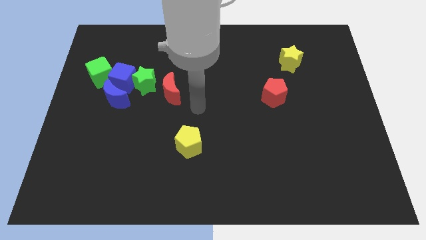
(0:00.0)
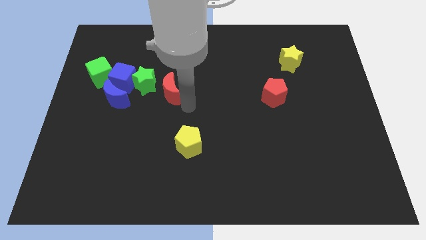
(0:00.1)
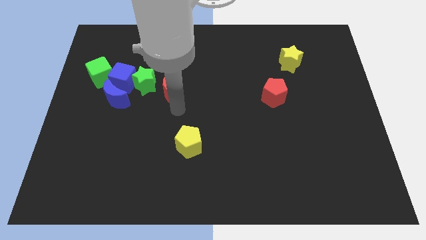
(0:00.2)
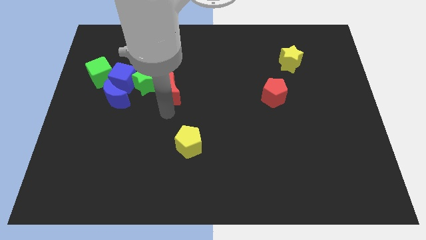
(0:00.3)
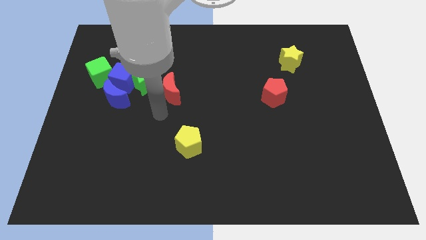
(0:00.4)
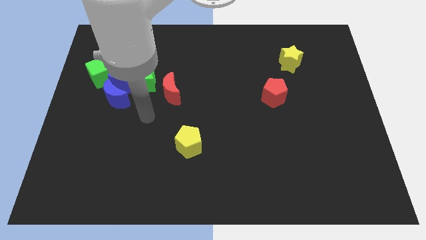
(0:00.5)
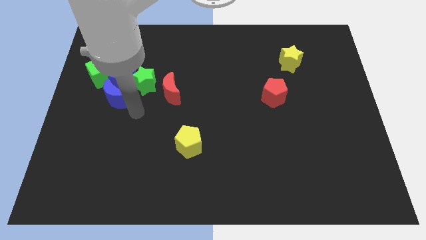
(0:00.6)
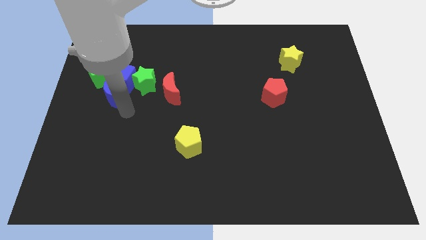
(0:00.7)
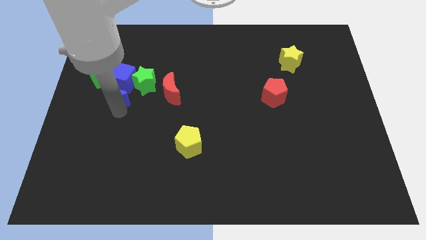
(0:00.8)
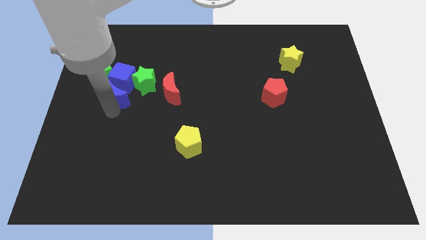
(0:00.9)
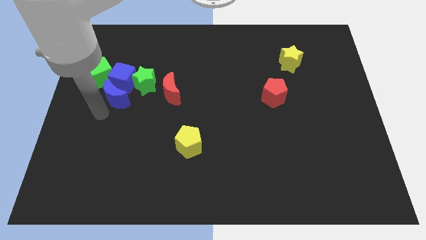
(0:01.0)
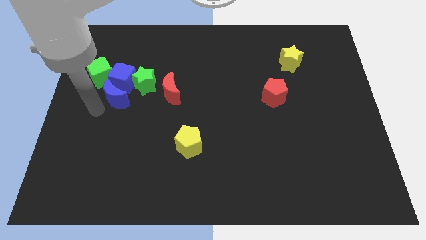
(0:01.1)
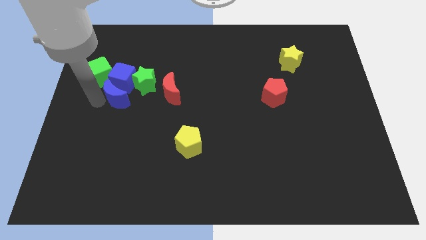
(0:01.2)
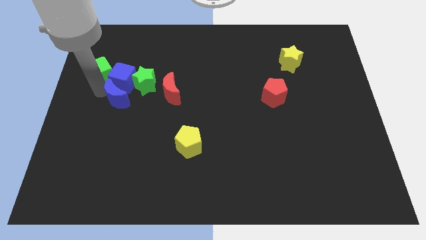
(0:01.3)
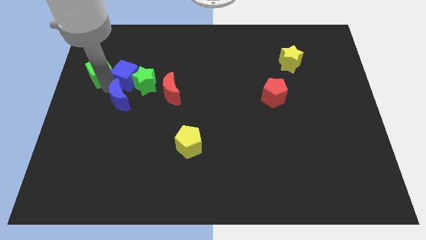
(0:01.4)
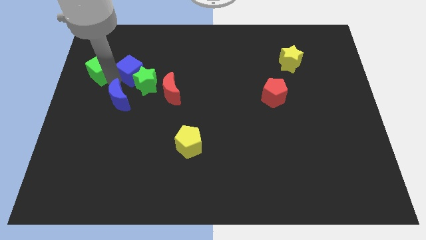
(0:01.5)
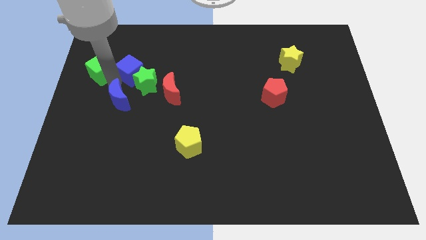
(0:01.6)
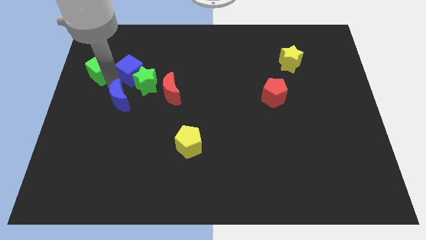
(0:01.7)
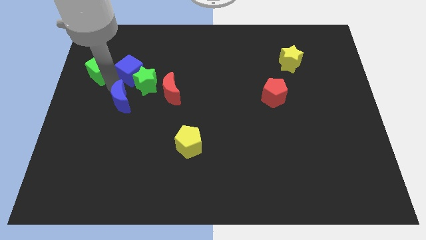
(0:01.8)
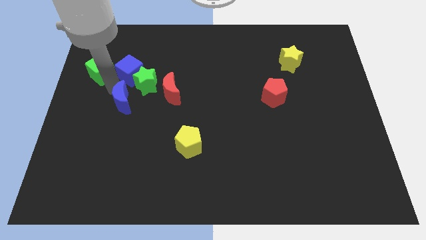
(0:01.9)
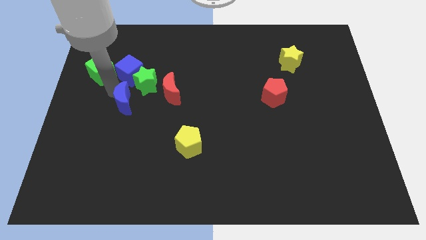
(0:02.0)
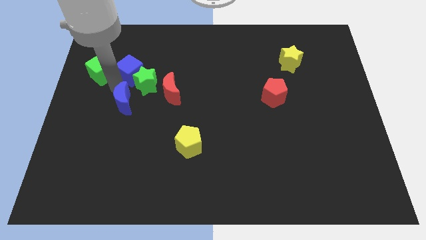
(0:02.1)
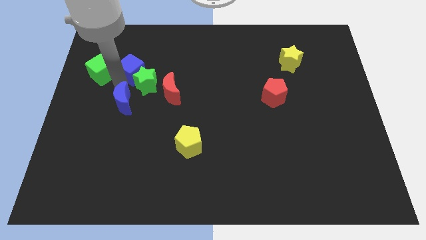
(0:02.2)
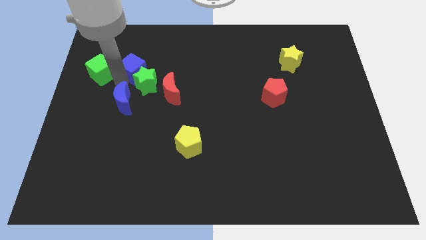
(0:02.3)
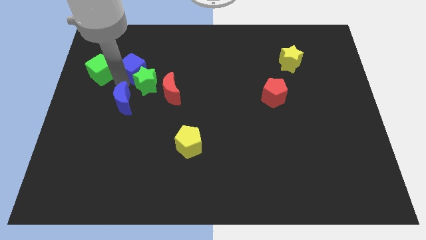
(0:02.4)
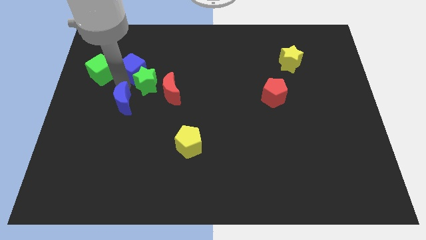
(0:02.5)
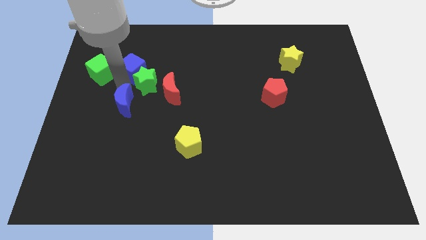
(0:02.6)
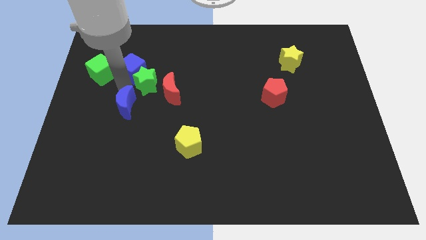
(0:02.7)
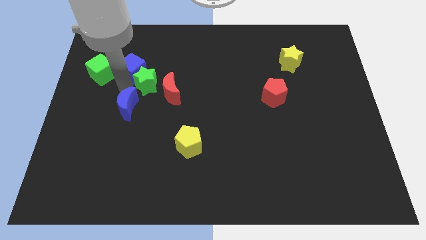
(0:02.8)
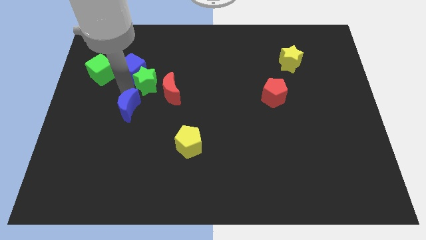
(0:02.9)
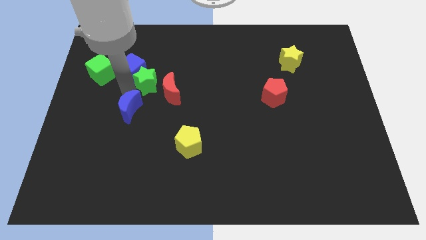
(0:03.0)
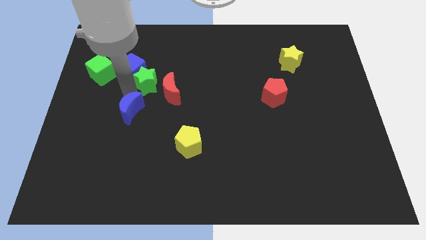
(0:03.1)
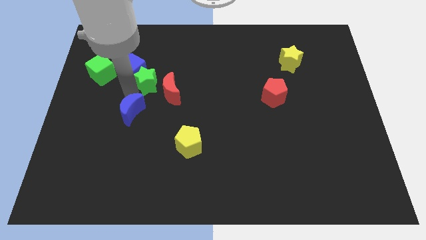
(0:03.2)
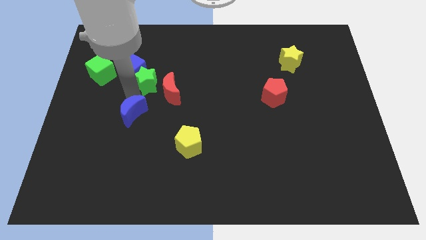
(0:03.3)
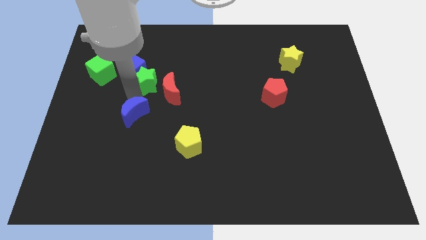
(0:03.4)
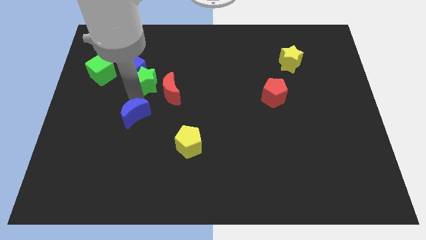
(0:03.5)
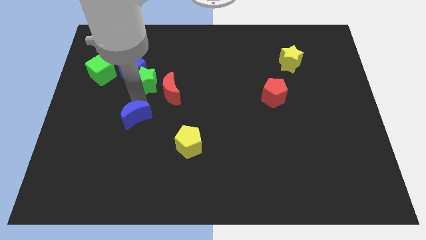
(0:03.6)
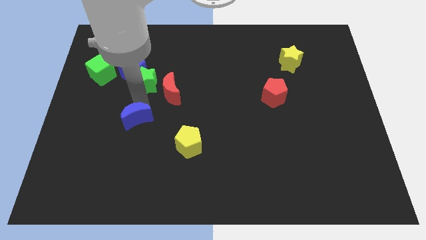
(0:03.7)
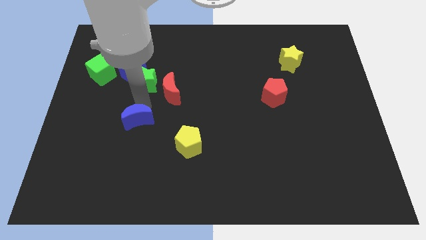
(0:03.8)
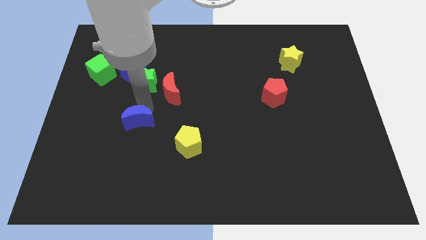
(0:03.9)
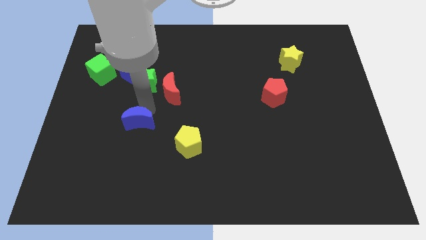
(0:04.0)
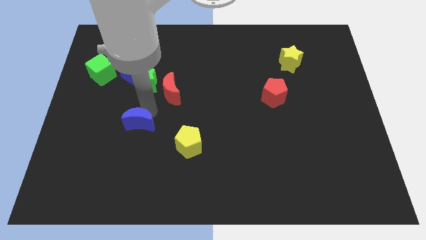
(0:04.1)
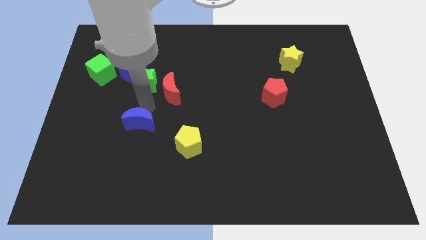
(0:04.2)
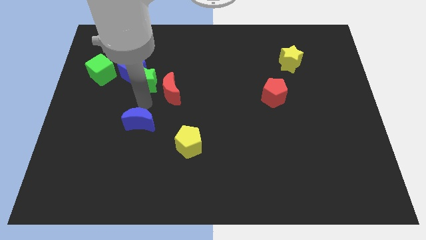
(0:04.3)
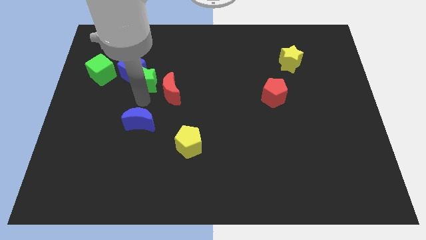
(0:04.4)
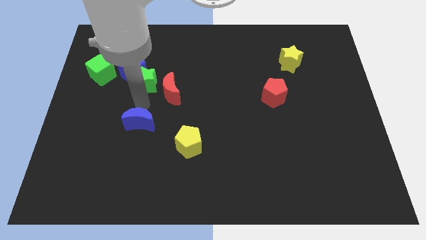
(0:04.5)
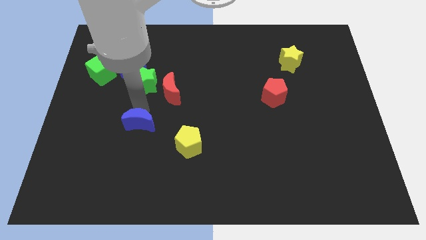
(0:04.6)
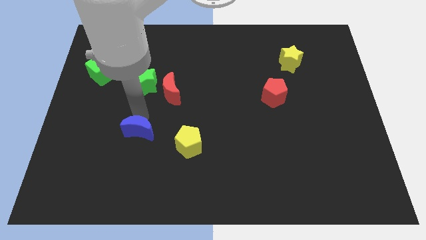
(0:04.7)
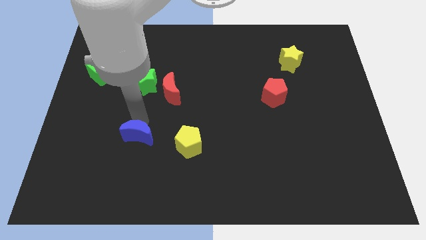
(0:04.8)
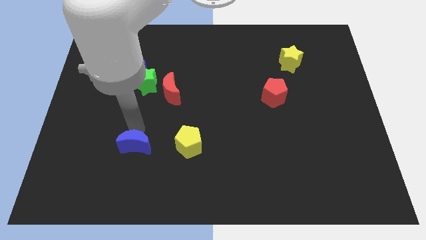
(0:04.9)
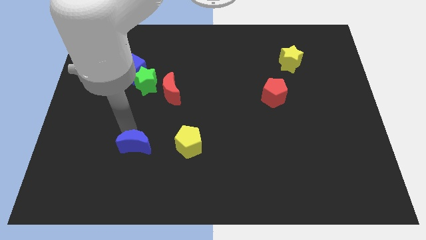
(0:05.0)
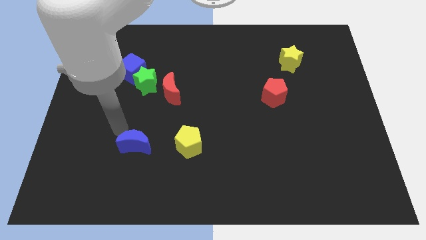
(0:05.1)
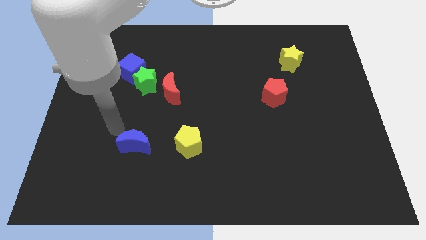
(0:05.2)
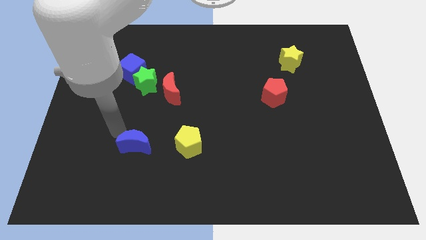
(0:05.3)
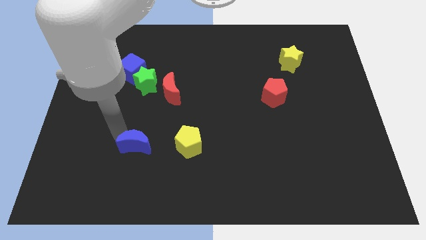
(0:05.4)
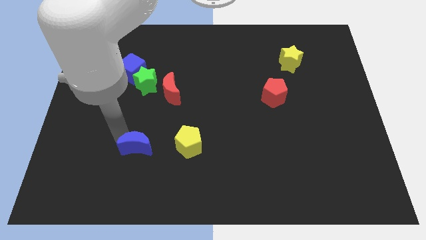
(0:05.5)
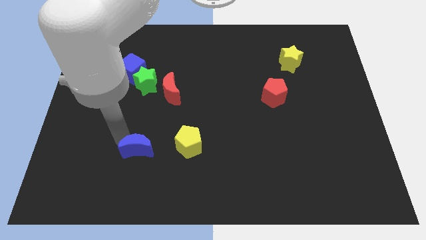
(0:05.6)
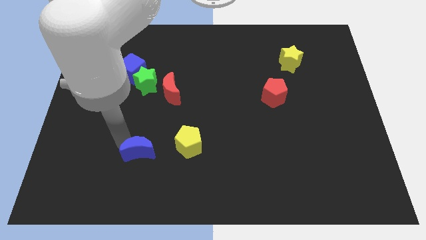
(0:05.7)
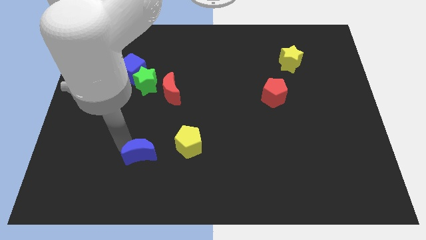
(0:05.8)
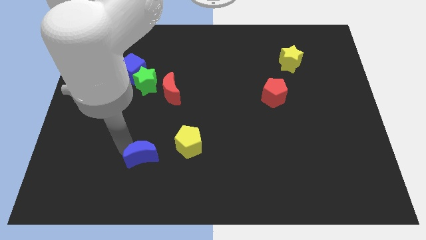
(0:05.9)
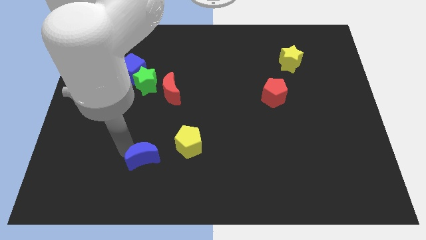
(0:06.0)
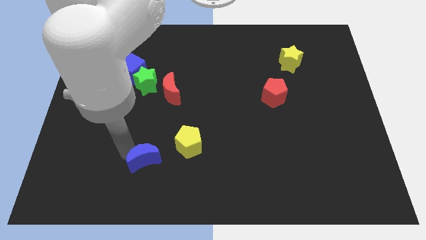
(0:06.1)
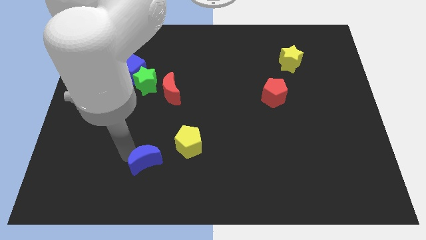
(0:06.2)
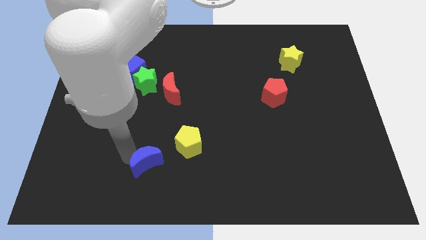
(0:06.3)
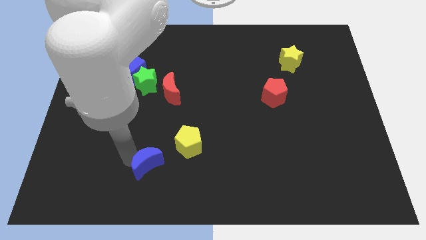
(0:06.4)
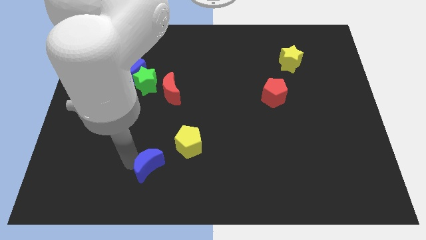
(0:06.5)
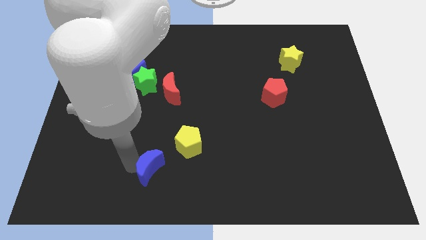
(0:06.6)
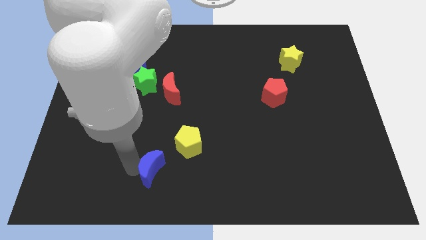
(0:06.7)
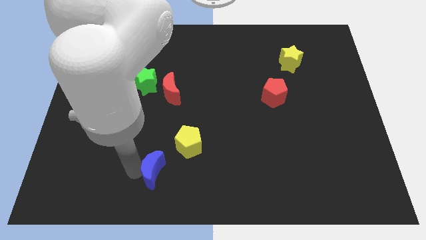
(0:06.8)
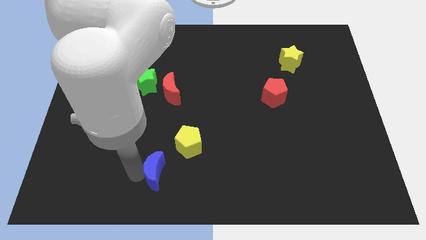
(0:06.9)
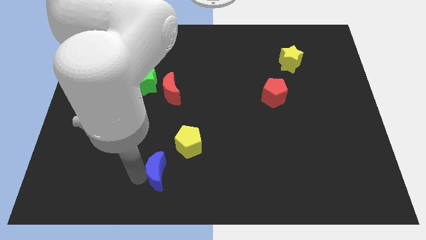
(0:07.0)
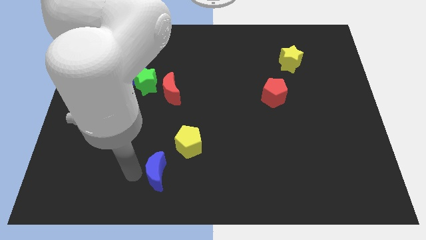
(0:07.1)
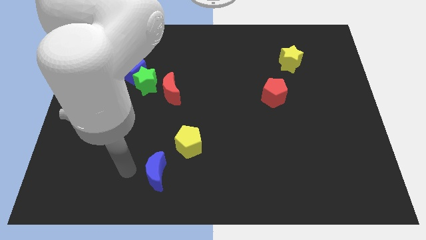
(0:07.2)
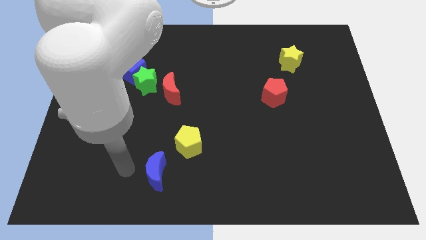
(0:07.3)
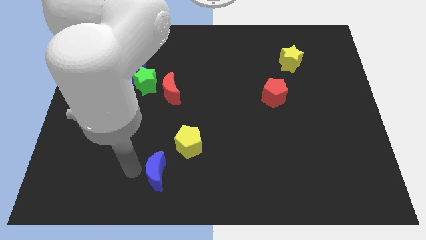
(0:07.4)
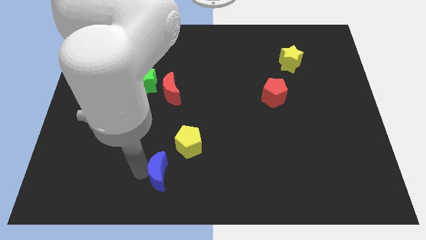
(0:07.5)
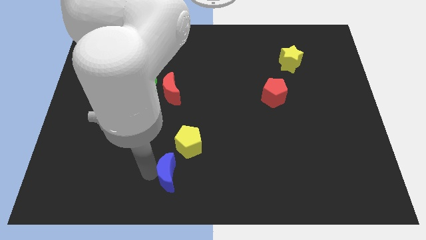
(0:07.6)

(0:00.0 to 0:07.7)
move the blue moon to the bottom side
